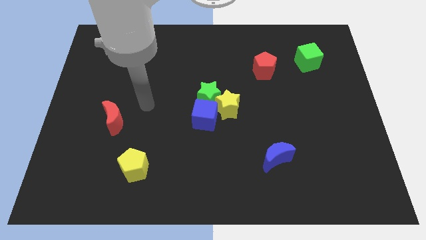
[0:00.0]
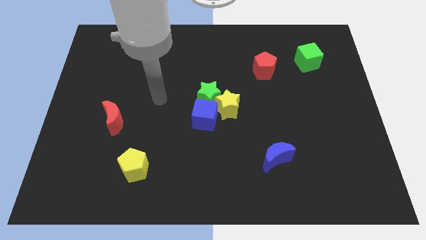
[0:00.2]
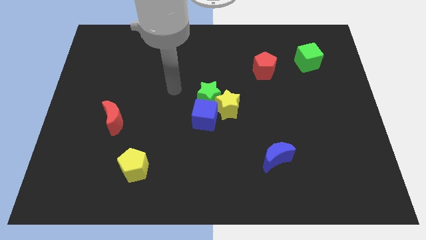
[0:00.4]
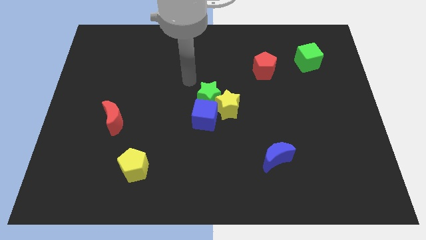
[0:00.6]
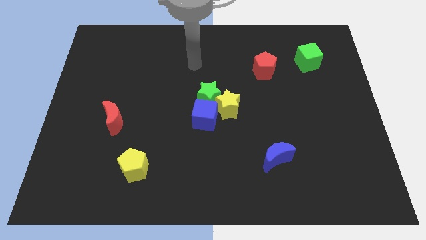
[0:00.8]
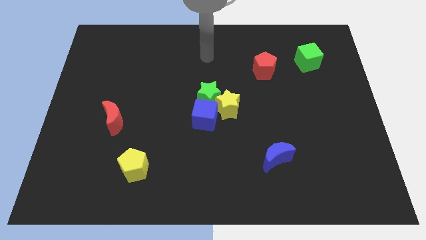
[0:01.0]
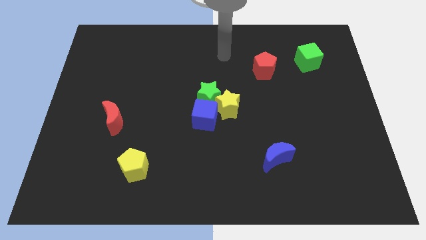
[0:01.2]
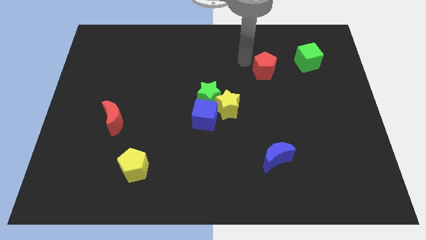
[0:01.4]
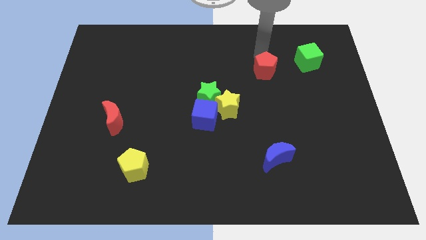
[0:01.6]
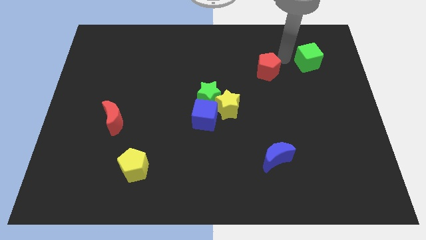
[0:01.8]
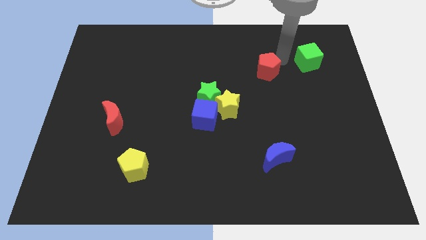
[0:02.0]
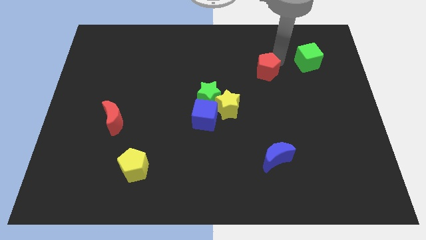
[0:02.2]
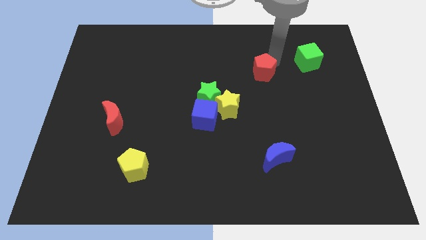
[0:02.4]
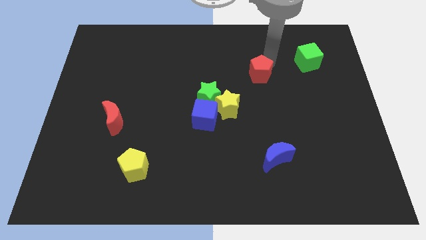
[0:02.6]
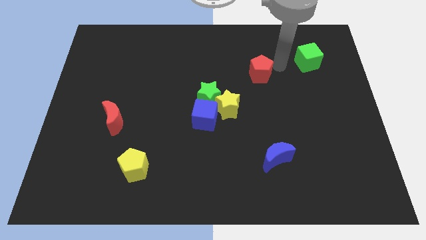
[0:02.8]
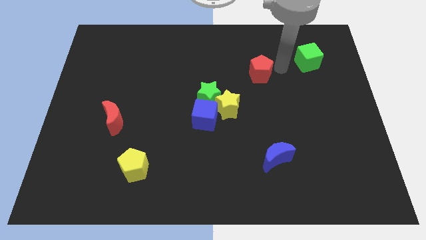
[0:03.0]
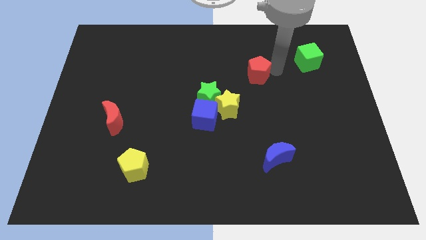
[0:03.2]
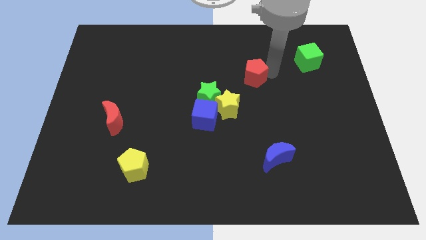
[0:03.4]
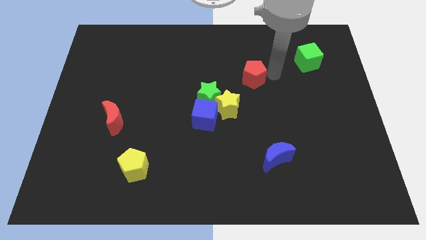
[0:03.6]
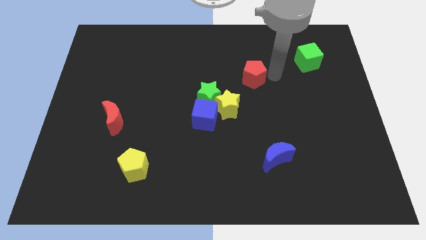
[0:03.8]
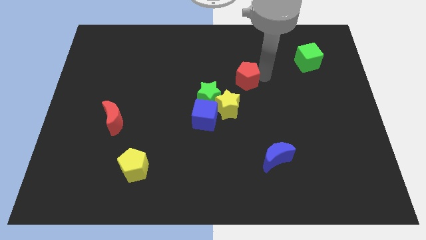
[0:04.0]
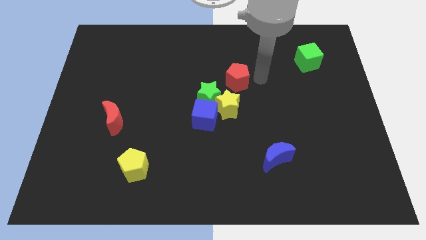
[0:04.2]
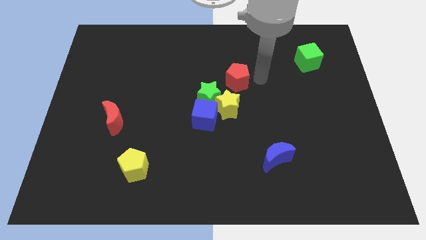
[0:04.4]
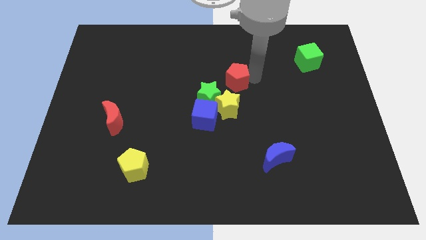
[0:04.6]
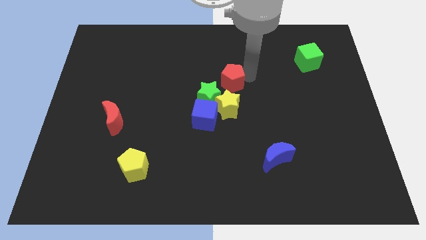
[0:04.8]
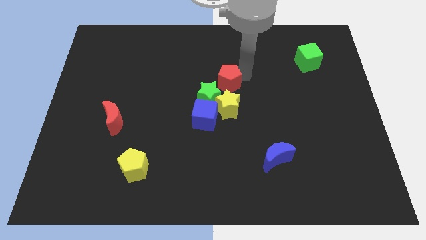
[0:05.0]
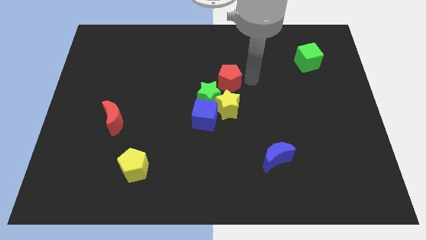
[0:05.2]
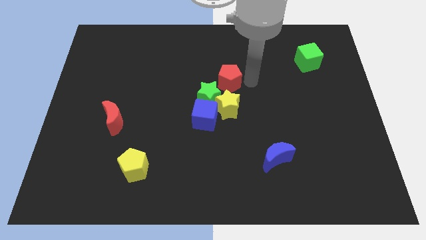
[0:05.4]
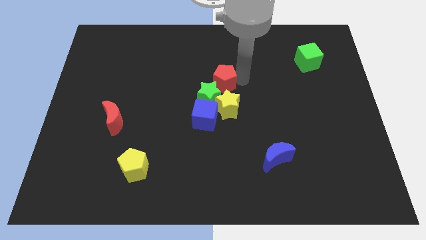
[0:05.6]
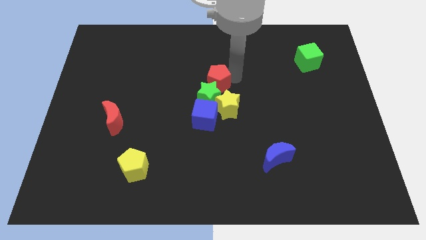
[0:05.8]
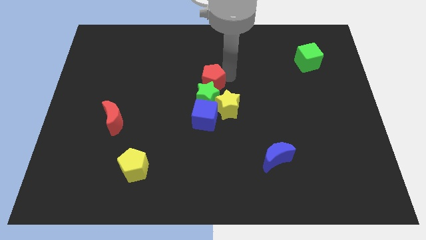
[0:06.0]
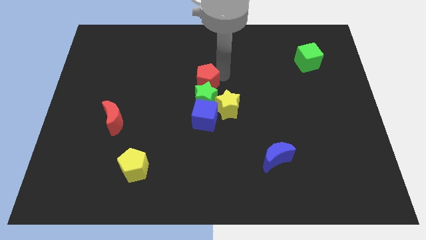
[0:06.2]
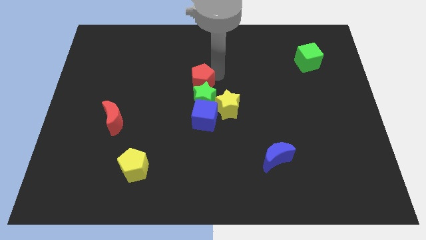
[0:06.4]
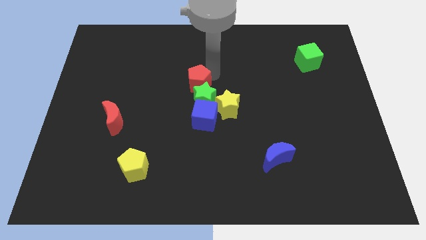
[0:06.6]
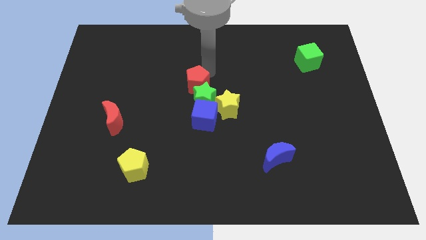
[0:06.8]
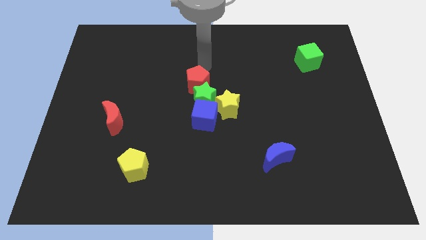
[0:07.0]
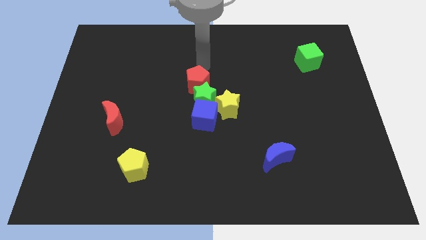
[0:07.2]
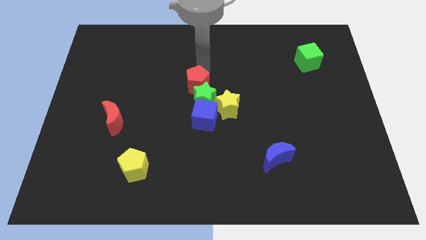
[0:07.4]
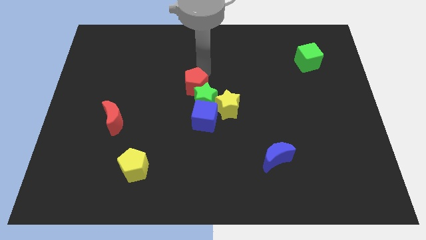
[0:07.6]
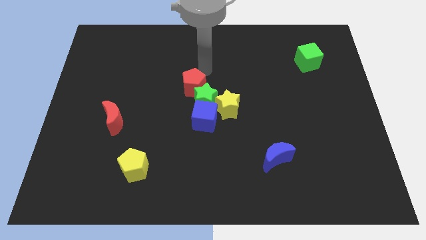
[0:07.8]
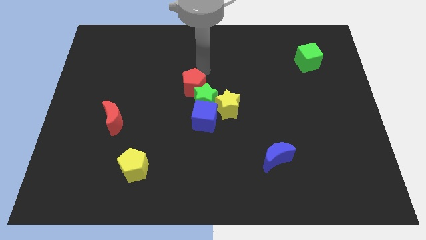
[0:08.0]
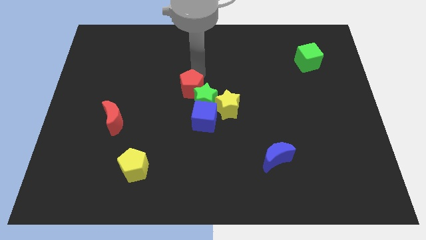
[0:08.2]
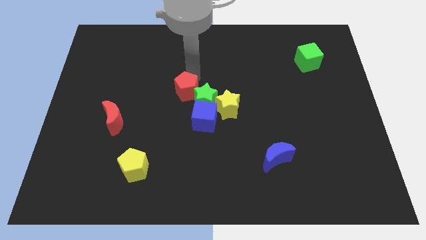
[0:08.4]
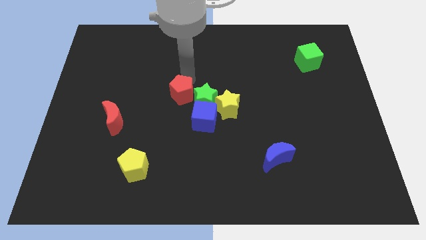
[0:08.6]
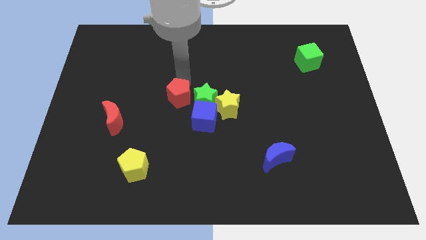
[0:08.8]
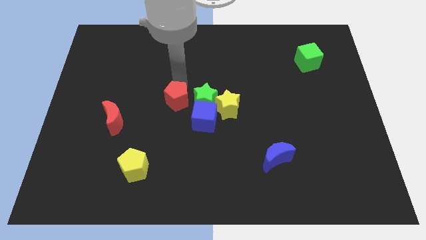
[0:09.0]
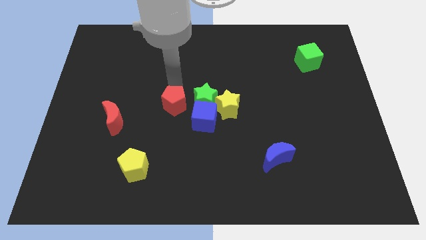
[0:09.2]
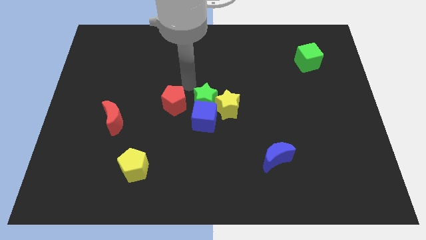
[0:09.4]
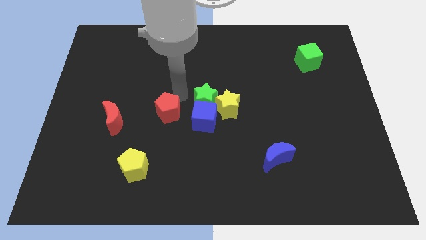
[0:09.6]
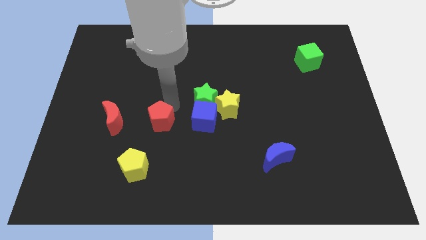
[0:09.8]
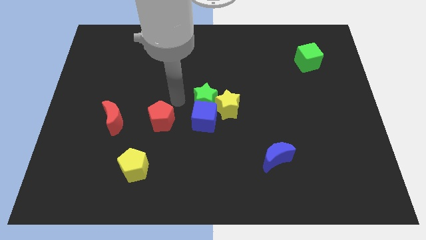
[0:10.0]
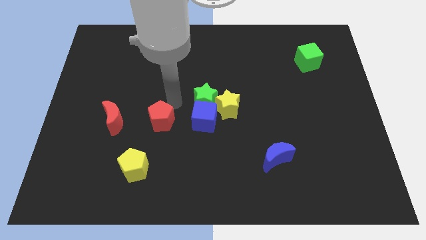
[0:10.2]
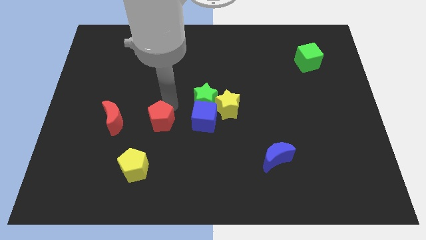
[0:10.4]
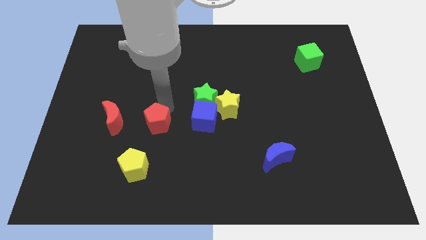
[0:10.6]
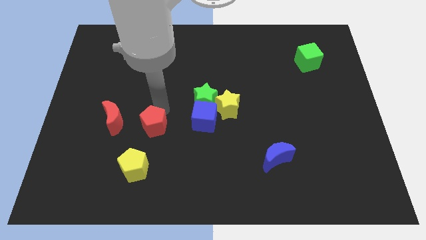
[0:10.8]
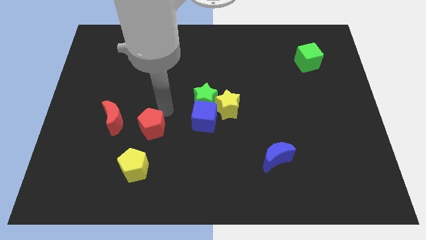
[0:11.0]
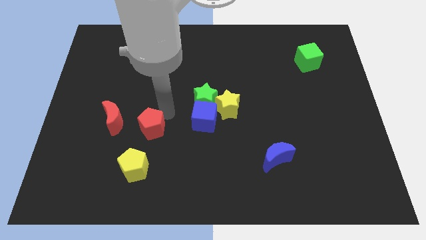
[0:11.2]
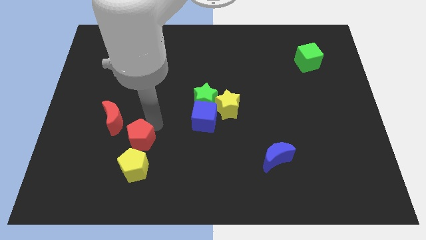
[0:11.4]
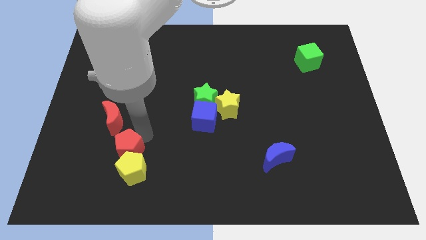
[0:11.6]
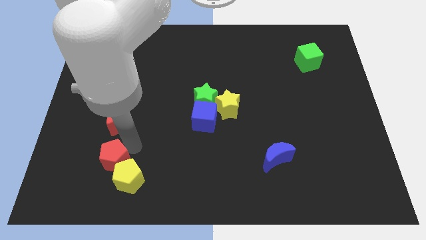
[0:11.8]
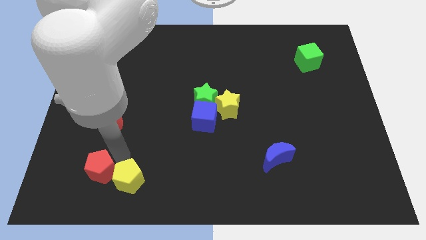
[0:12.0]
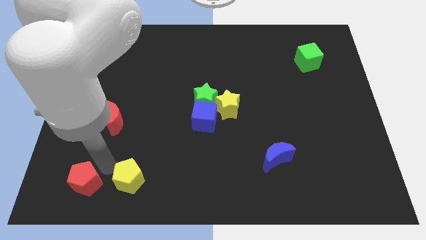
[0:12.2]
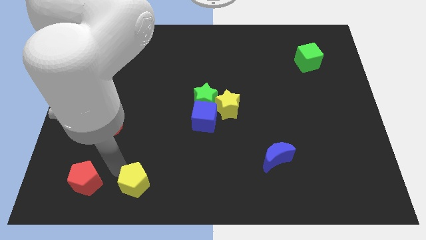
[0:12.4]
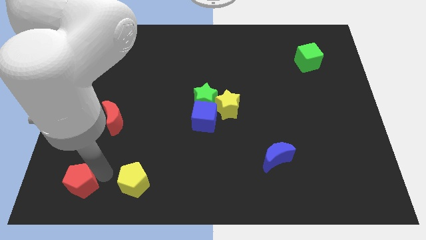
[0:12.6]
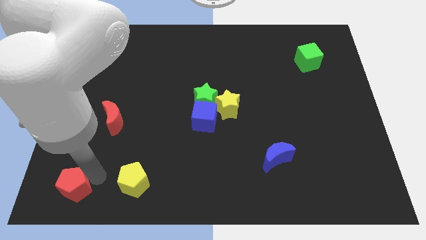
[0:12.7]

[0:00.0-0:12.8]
put the red pentagon to the bottom left

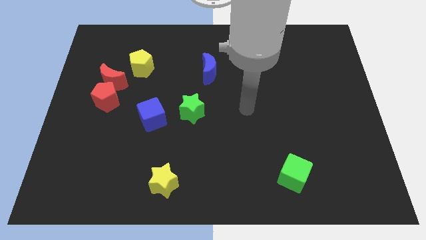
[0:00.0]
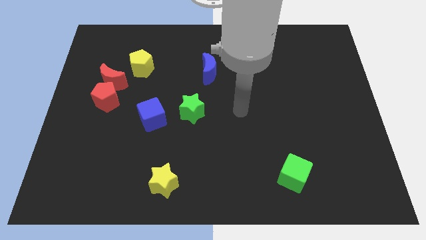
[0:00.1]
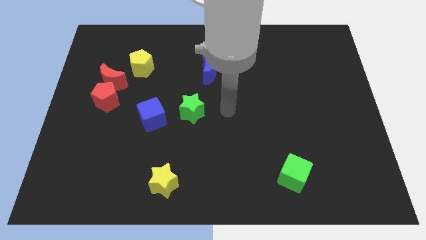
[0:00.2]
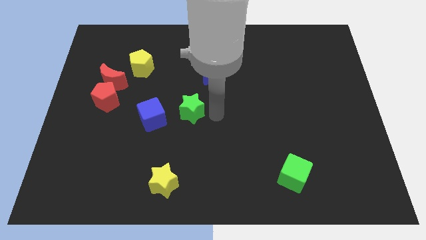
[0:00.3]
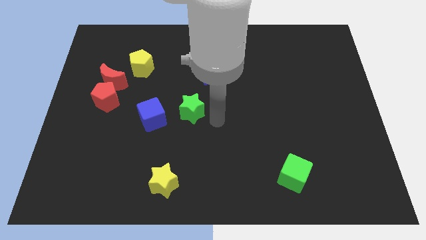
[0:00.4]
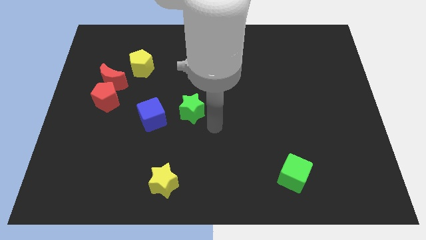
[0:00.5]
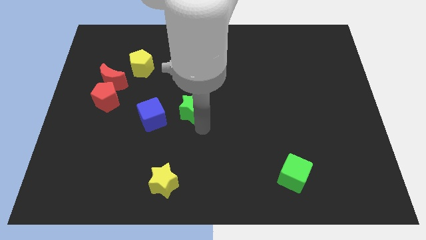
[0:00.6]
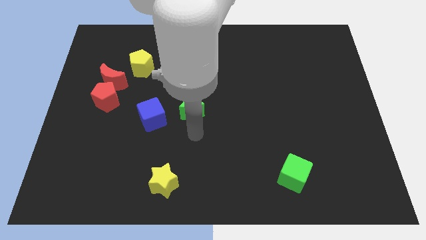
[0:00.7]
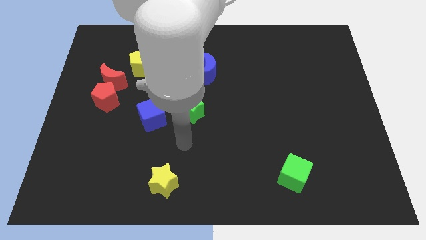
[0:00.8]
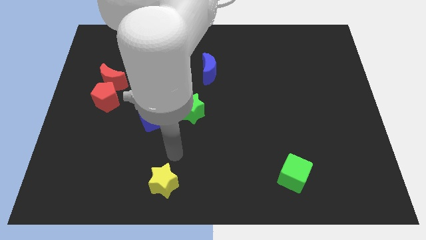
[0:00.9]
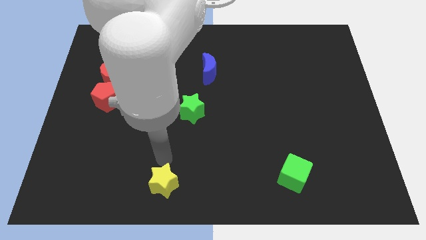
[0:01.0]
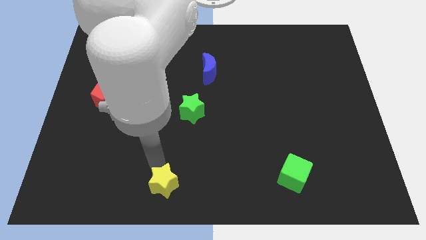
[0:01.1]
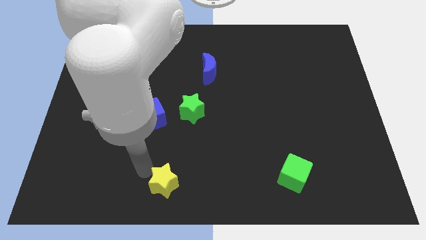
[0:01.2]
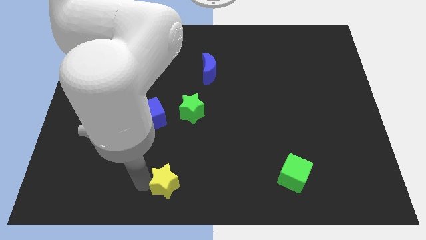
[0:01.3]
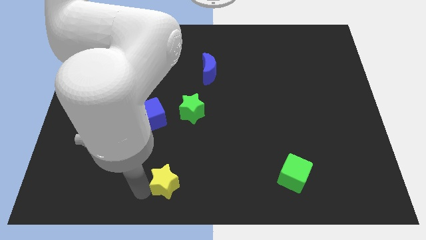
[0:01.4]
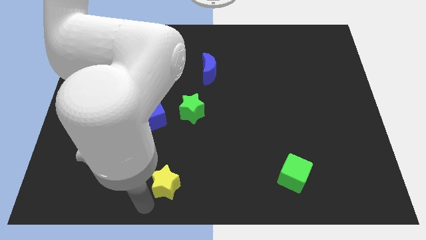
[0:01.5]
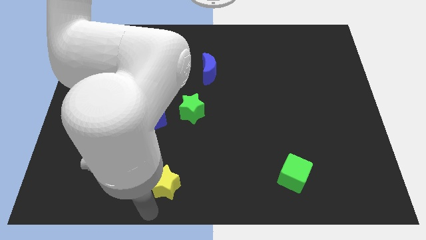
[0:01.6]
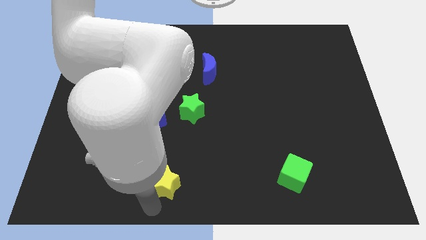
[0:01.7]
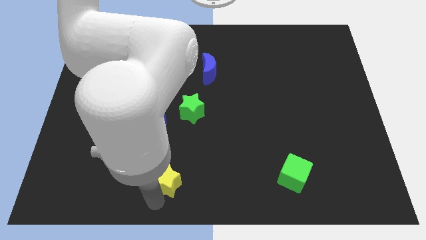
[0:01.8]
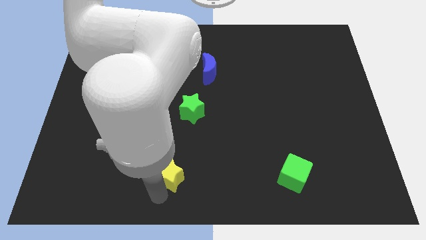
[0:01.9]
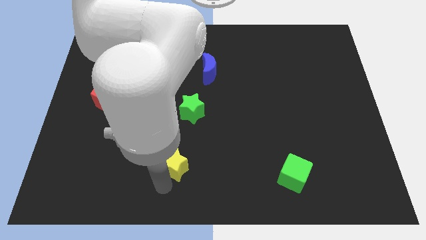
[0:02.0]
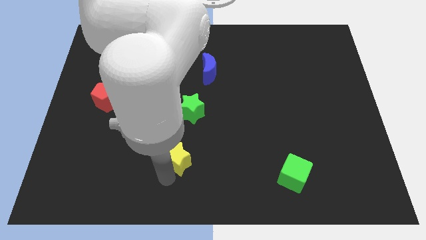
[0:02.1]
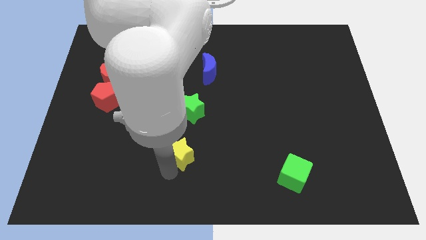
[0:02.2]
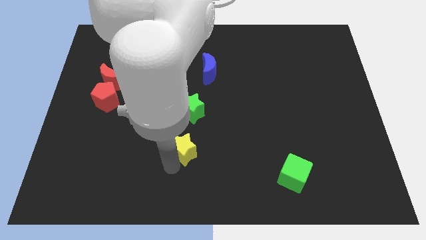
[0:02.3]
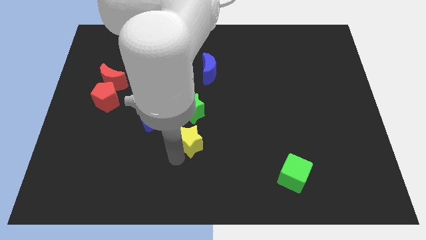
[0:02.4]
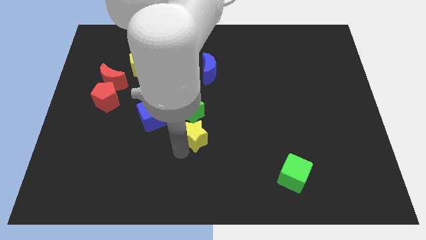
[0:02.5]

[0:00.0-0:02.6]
put the yellow star to the center of the board
